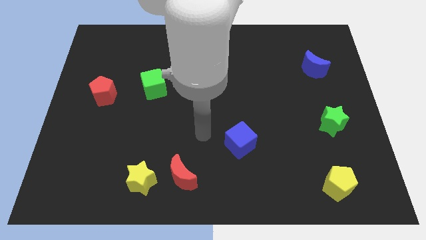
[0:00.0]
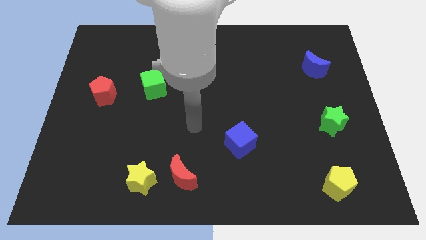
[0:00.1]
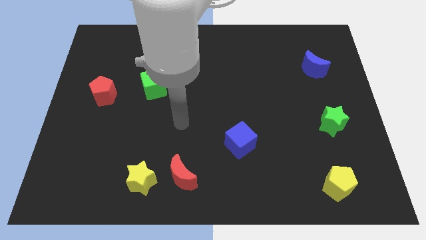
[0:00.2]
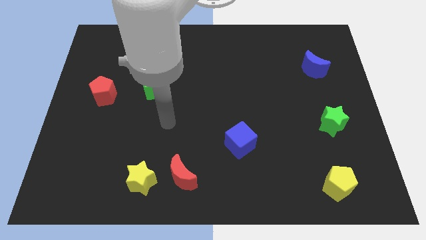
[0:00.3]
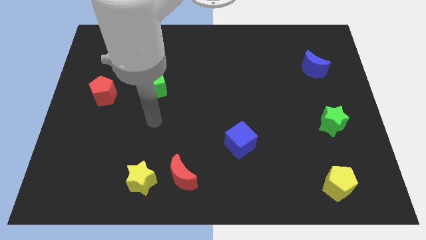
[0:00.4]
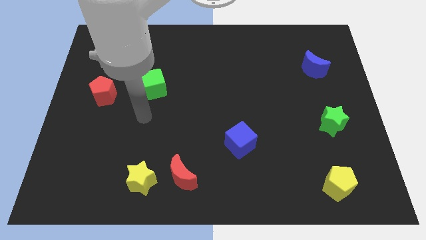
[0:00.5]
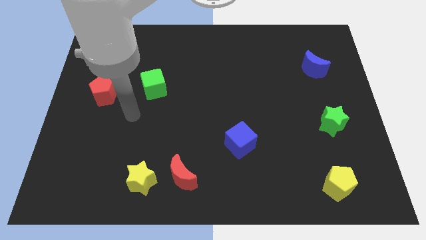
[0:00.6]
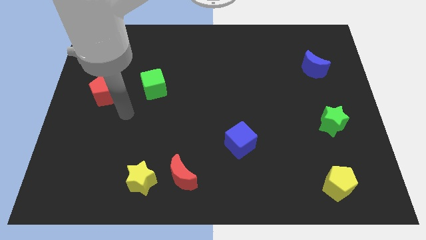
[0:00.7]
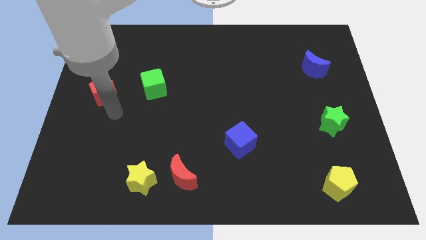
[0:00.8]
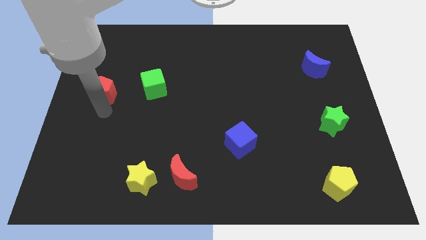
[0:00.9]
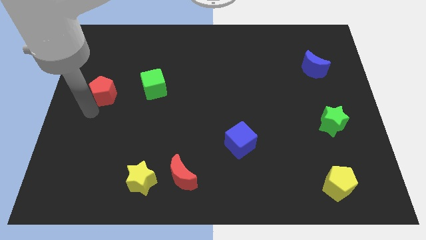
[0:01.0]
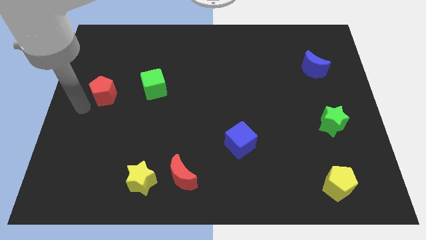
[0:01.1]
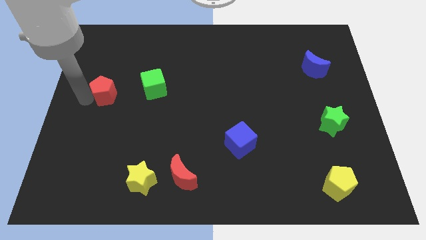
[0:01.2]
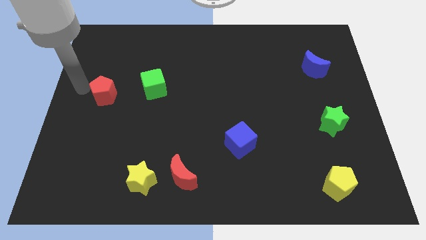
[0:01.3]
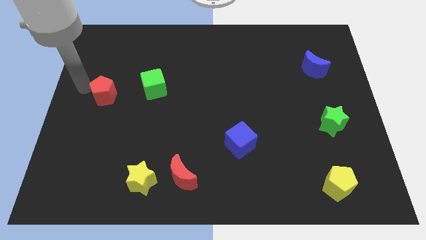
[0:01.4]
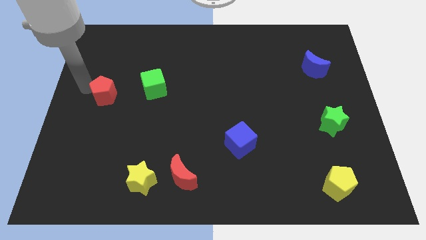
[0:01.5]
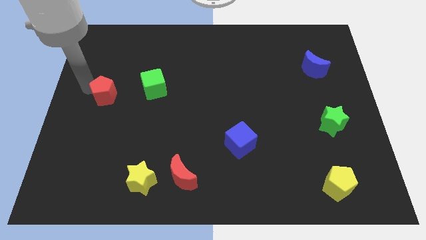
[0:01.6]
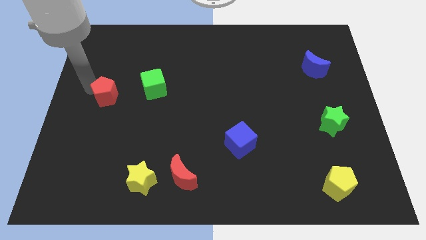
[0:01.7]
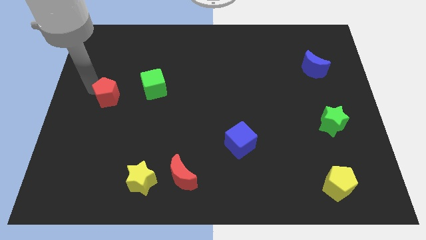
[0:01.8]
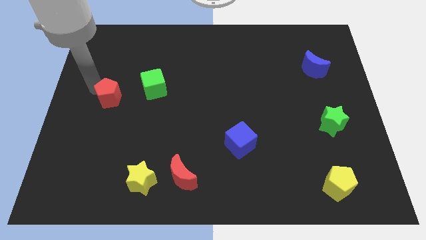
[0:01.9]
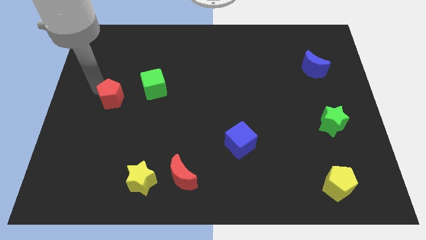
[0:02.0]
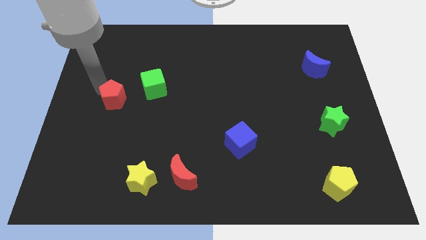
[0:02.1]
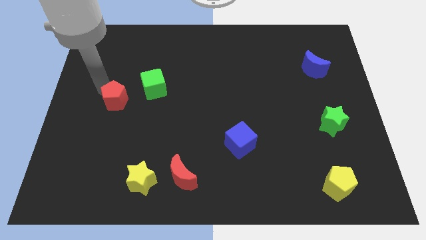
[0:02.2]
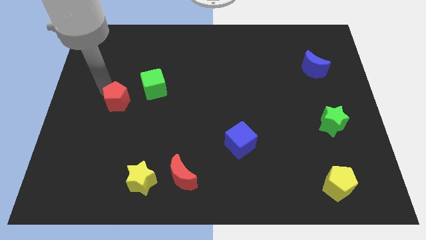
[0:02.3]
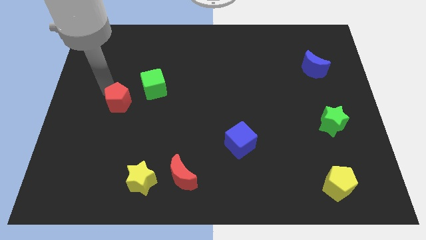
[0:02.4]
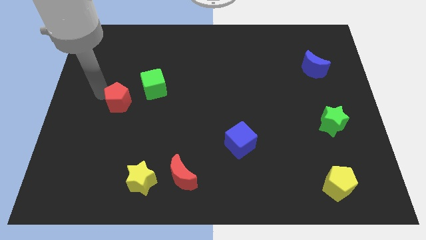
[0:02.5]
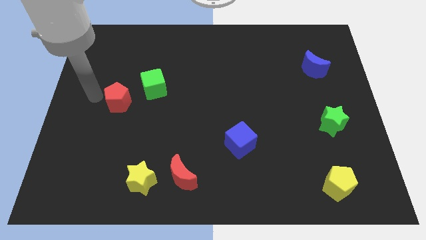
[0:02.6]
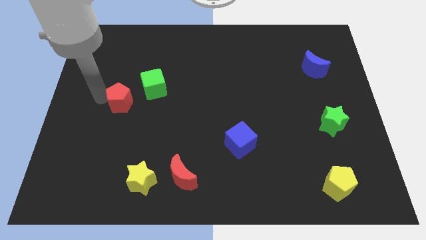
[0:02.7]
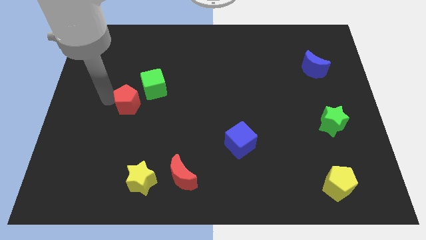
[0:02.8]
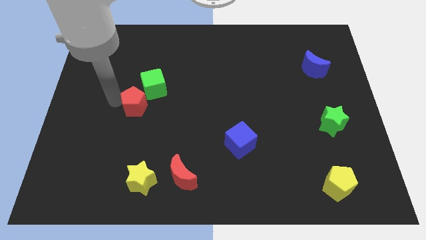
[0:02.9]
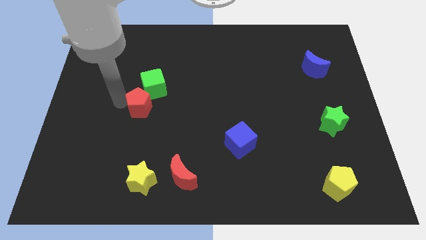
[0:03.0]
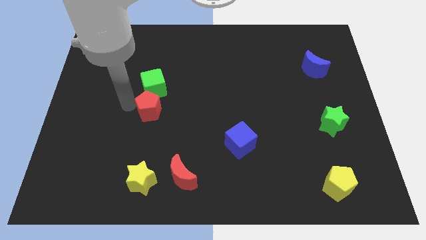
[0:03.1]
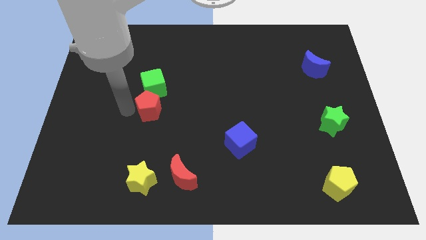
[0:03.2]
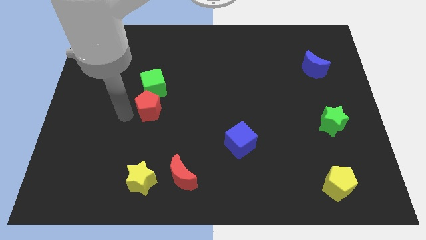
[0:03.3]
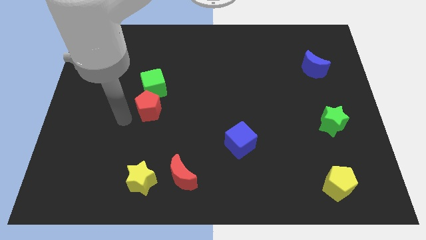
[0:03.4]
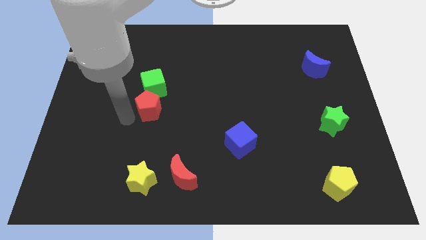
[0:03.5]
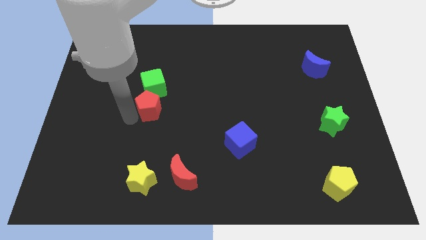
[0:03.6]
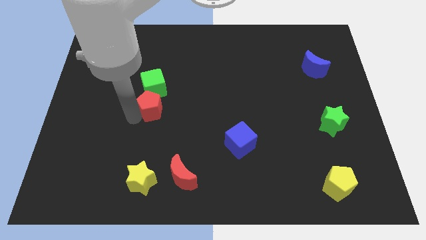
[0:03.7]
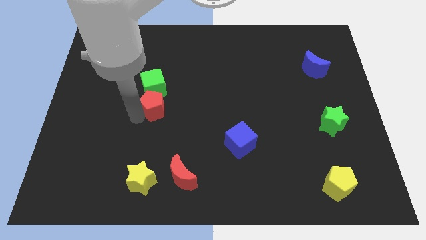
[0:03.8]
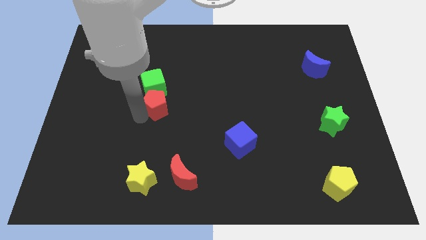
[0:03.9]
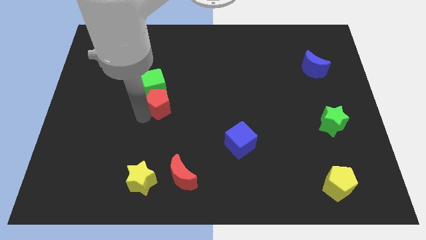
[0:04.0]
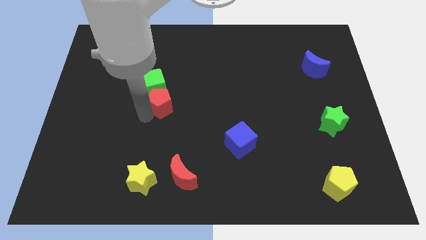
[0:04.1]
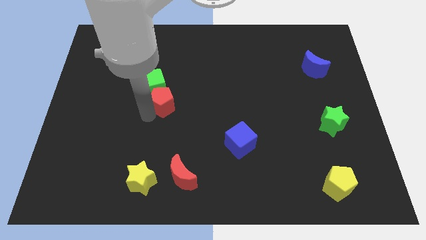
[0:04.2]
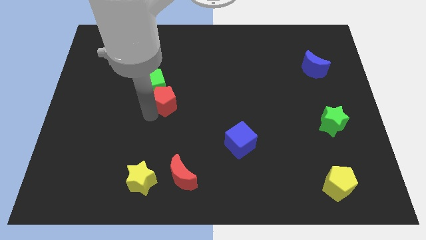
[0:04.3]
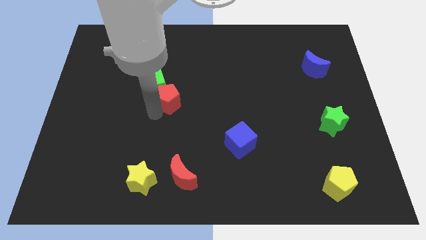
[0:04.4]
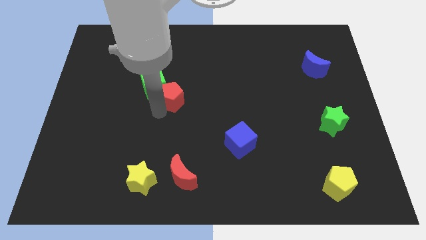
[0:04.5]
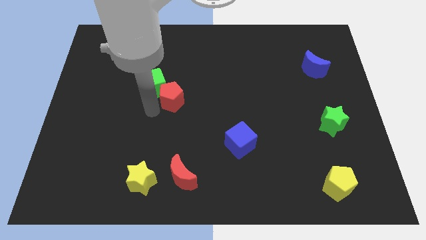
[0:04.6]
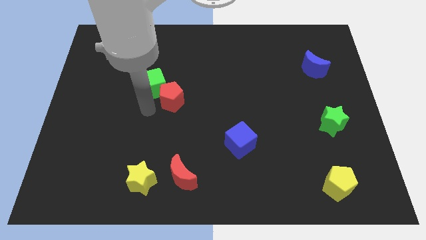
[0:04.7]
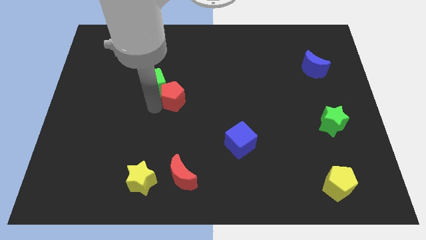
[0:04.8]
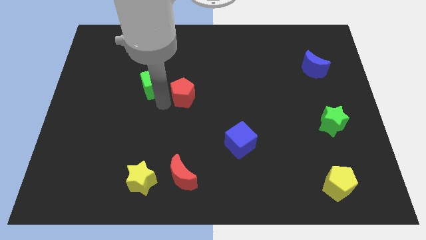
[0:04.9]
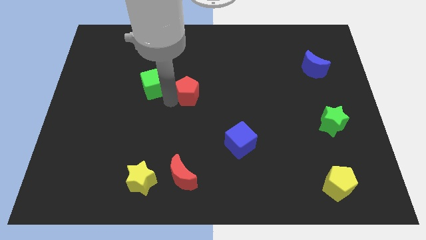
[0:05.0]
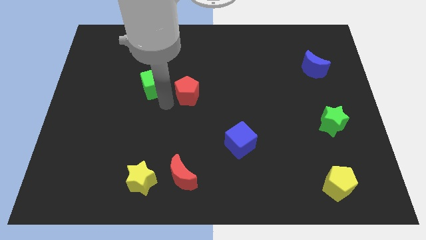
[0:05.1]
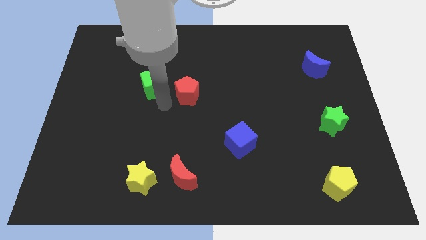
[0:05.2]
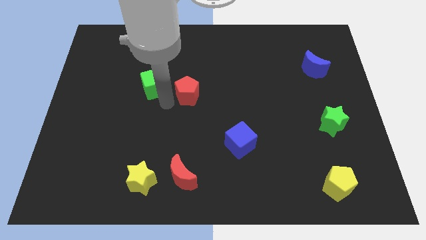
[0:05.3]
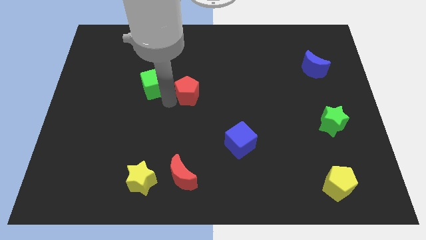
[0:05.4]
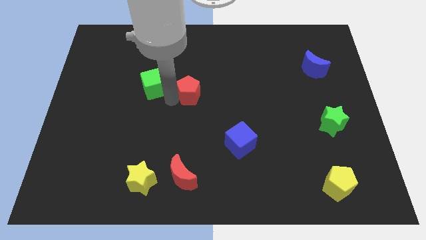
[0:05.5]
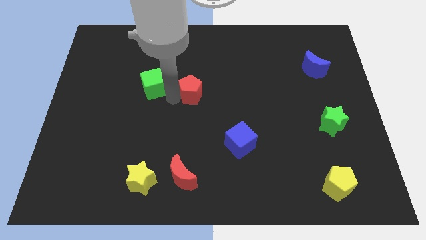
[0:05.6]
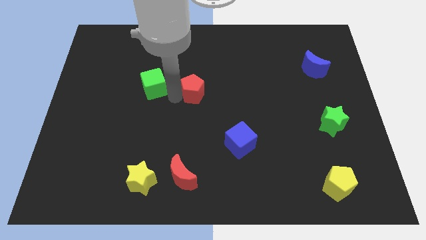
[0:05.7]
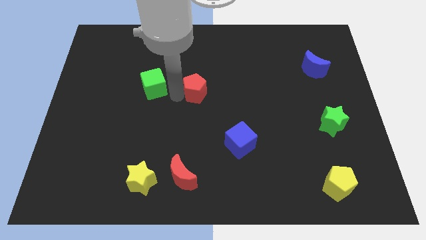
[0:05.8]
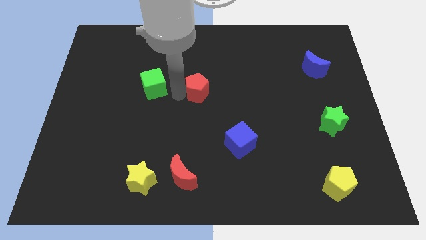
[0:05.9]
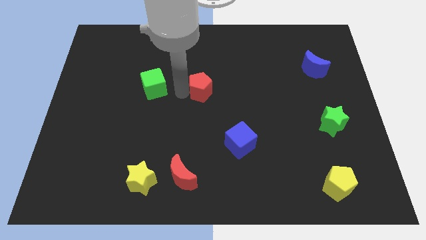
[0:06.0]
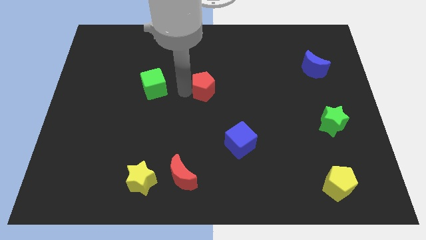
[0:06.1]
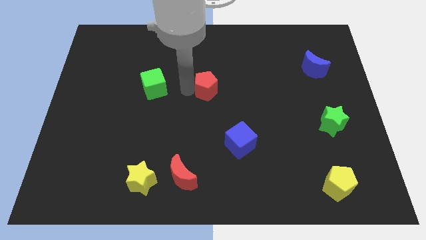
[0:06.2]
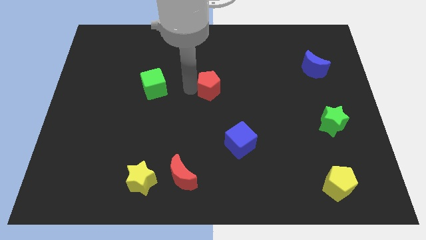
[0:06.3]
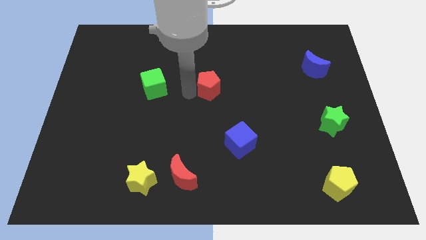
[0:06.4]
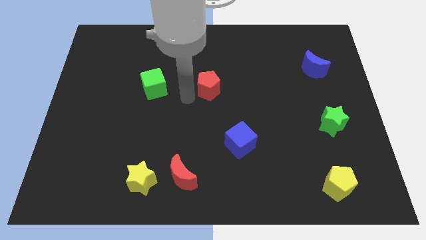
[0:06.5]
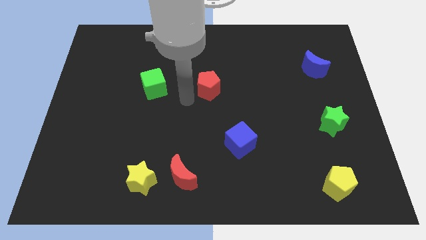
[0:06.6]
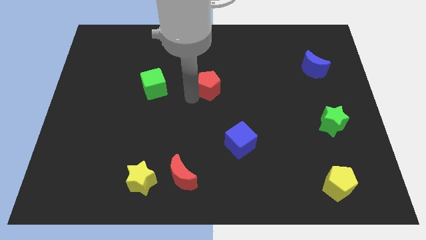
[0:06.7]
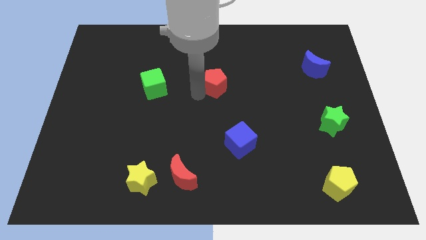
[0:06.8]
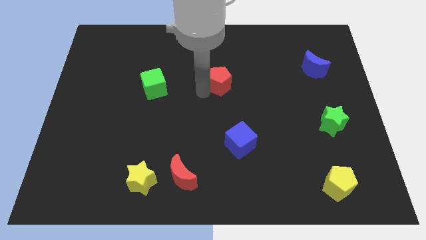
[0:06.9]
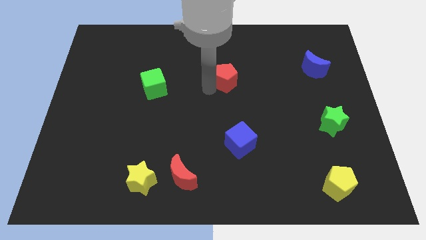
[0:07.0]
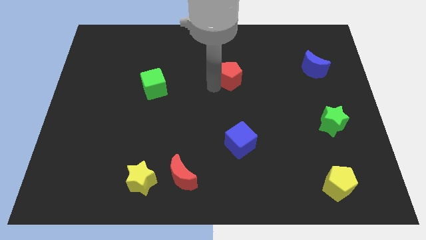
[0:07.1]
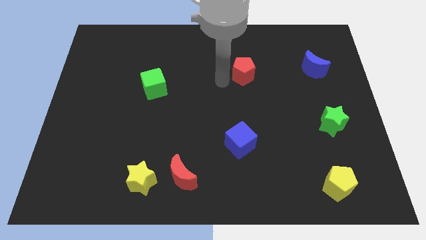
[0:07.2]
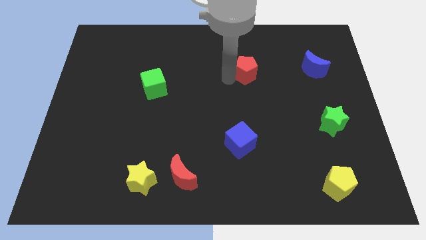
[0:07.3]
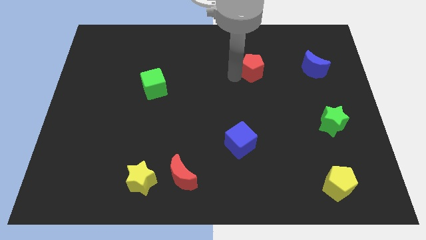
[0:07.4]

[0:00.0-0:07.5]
push the red pentagon to the left of the blue moon
